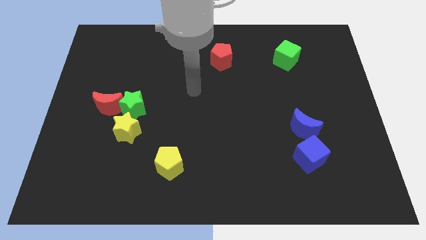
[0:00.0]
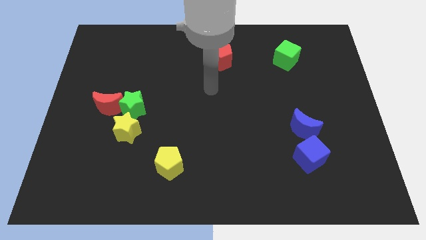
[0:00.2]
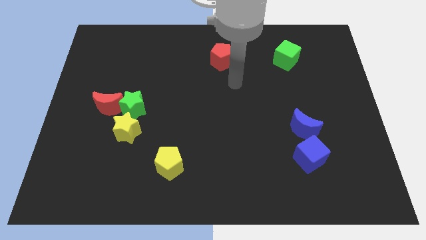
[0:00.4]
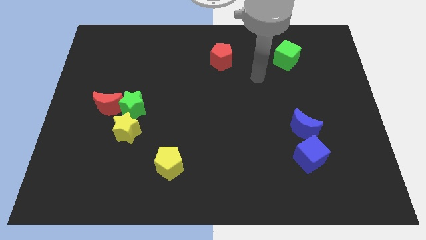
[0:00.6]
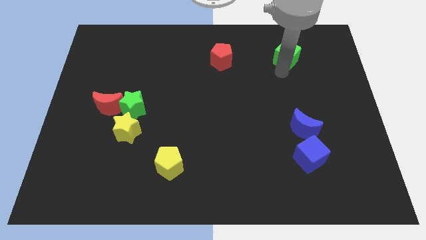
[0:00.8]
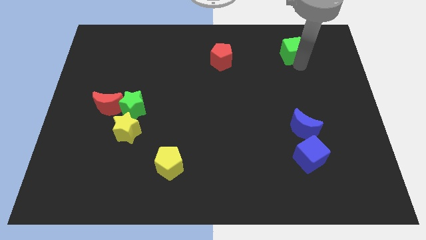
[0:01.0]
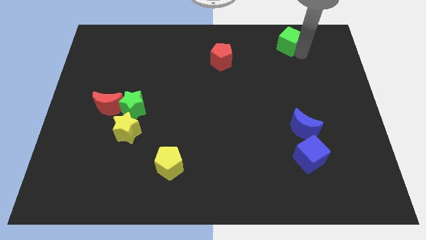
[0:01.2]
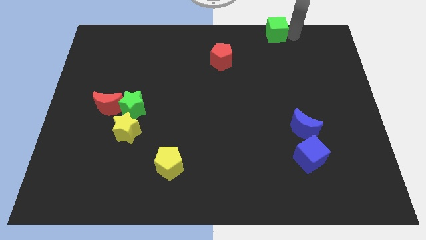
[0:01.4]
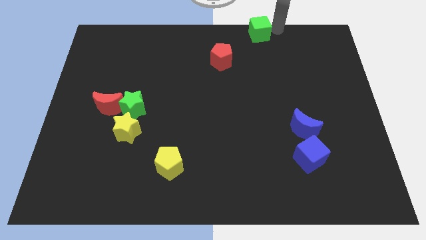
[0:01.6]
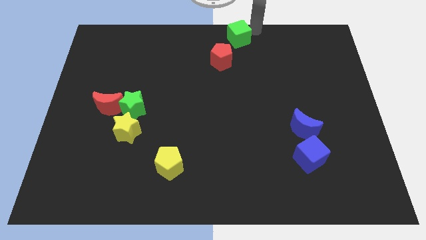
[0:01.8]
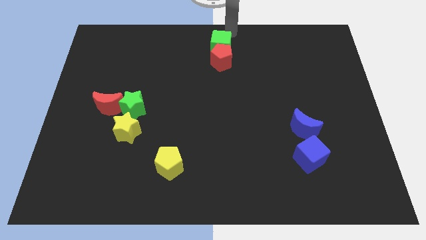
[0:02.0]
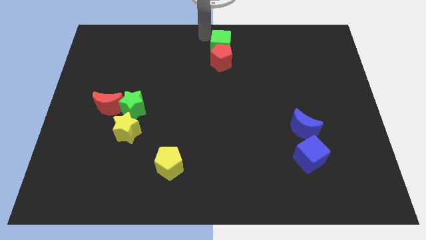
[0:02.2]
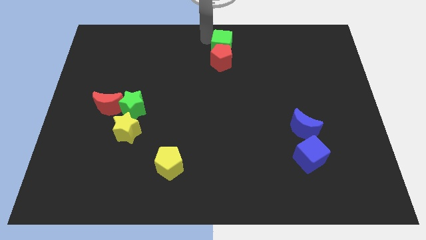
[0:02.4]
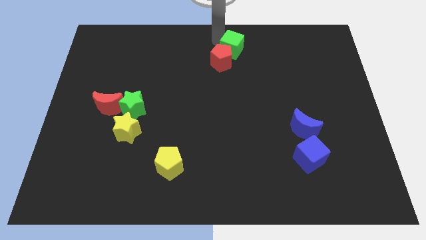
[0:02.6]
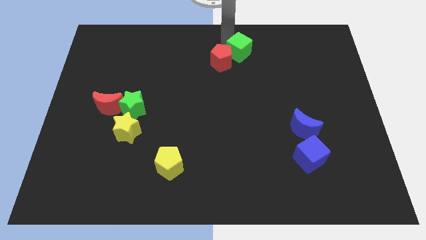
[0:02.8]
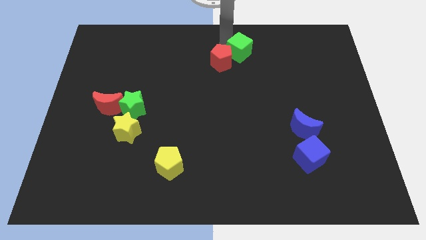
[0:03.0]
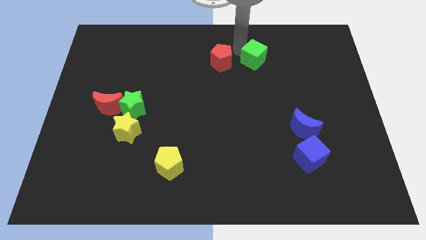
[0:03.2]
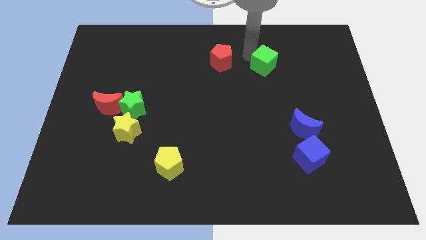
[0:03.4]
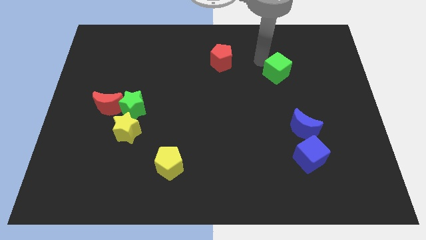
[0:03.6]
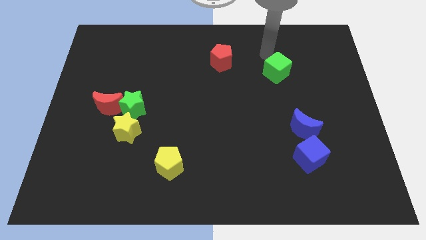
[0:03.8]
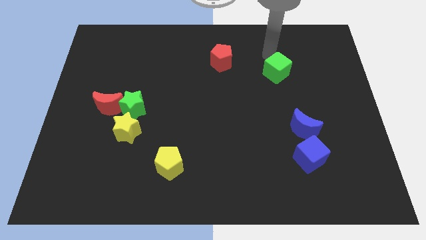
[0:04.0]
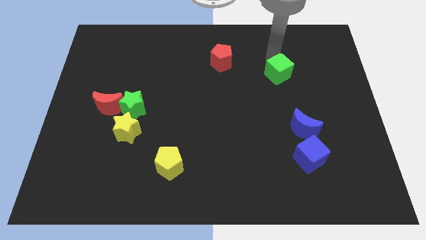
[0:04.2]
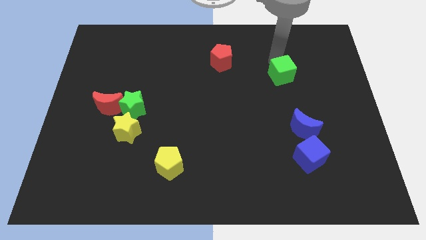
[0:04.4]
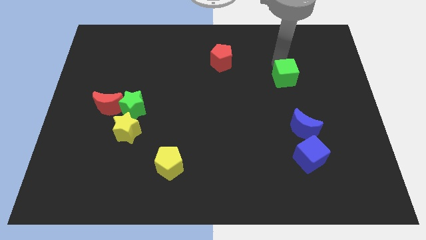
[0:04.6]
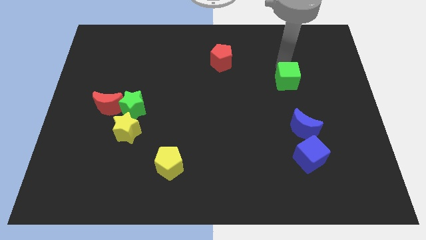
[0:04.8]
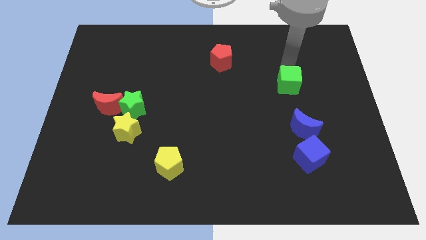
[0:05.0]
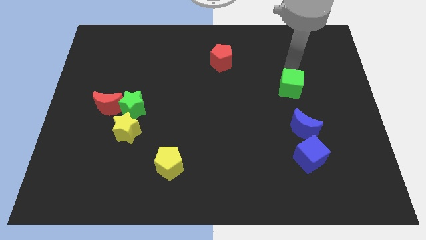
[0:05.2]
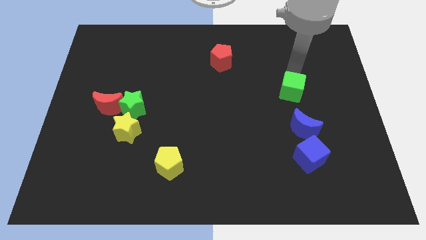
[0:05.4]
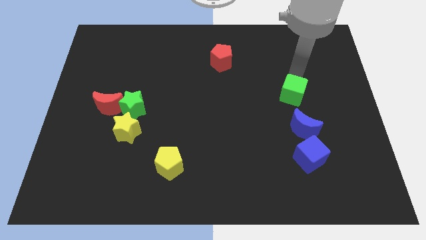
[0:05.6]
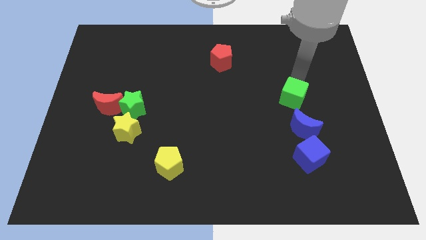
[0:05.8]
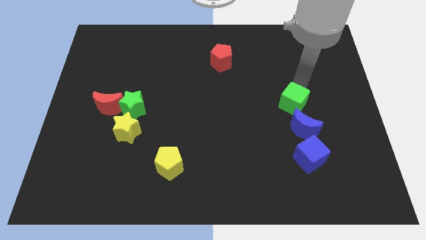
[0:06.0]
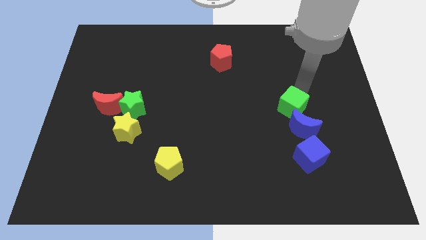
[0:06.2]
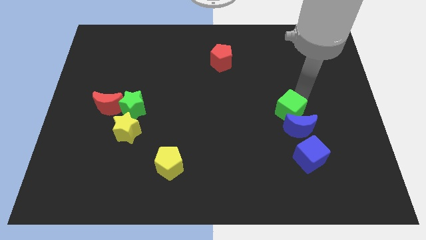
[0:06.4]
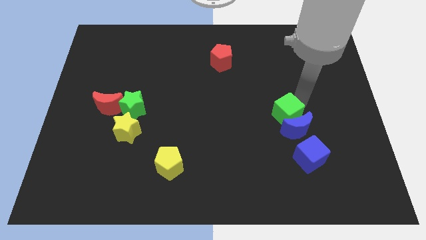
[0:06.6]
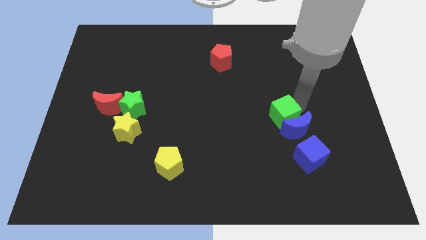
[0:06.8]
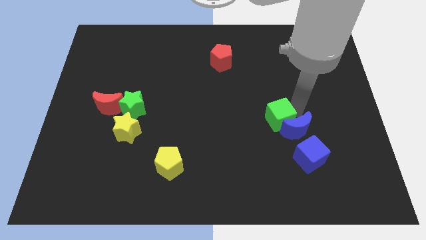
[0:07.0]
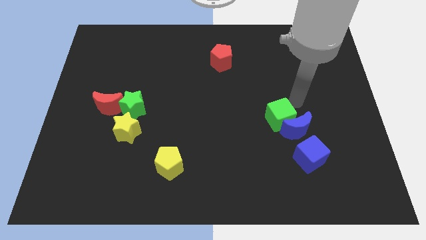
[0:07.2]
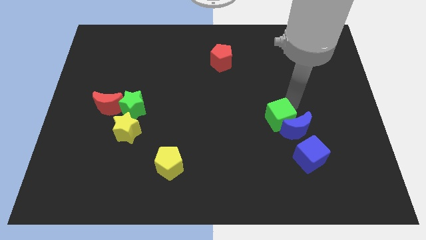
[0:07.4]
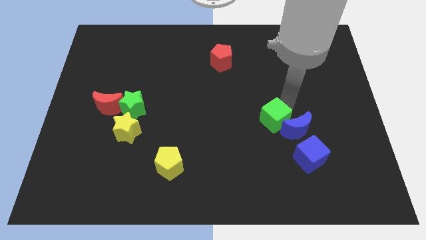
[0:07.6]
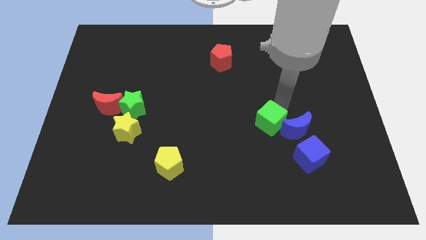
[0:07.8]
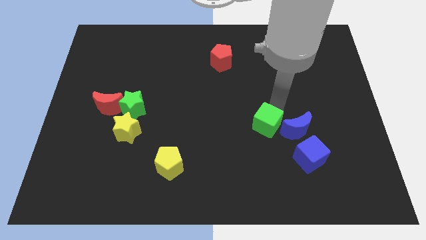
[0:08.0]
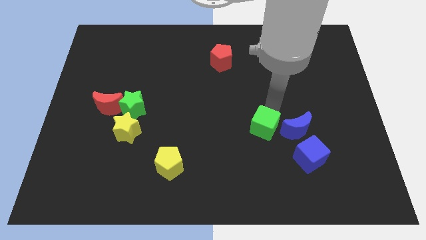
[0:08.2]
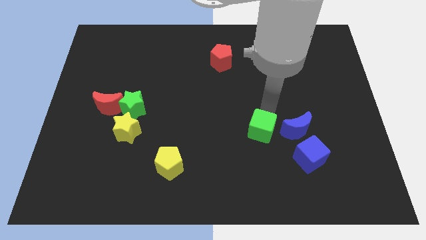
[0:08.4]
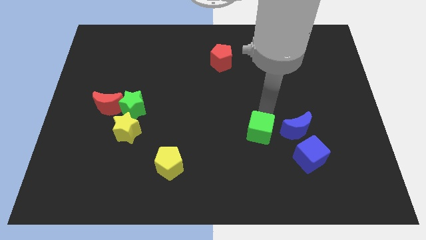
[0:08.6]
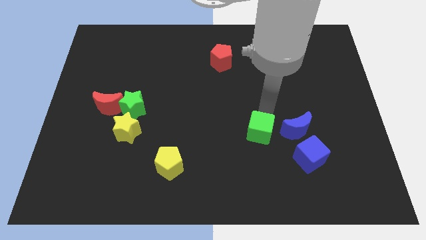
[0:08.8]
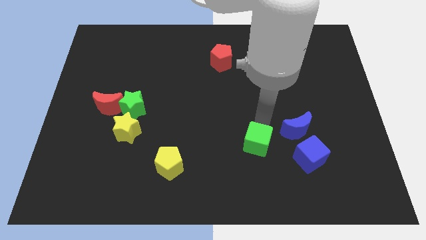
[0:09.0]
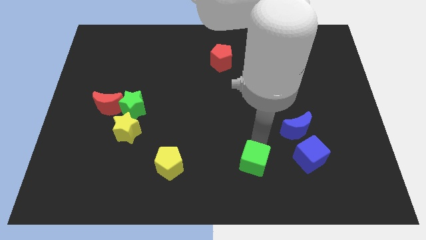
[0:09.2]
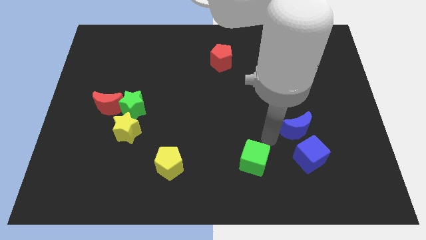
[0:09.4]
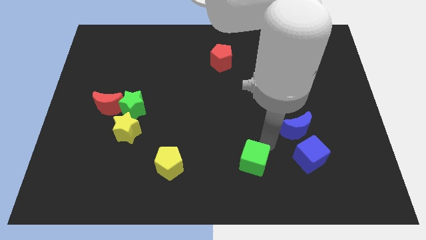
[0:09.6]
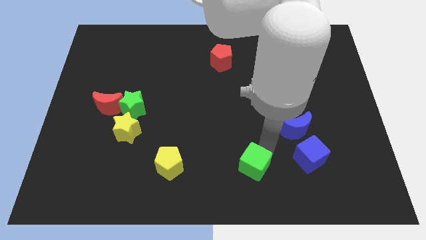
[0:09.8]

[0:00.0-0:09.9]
push the green cube to the bottom side
